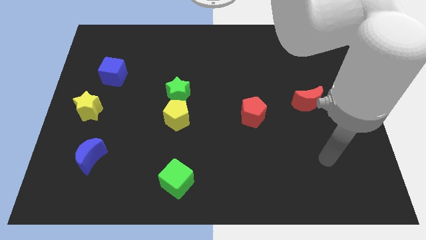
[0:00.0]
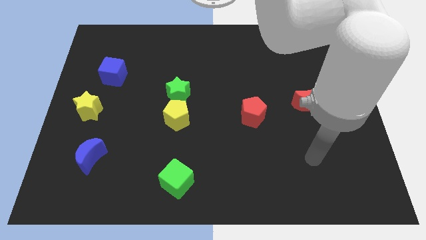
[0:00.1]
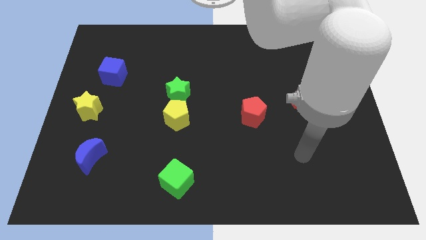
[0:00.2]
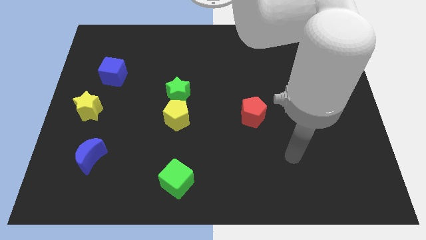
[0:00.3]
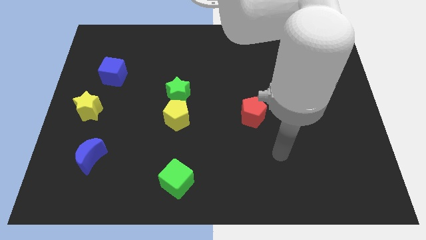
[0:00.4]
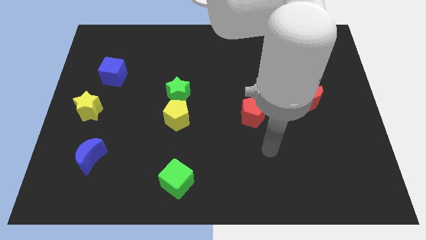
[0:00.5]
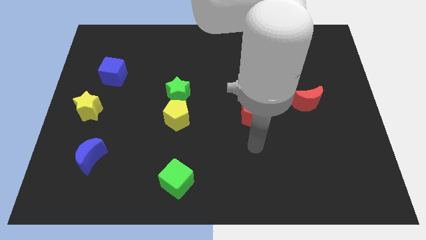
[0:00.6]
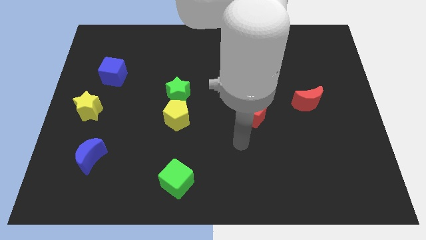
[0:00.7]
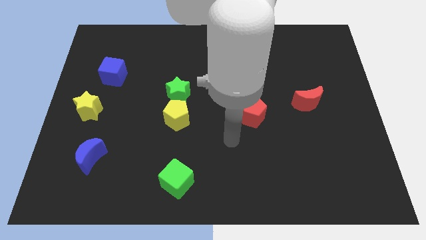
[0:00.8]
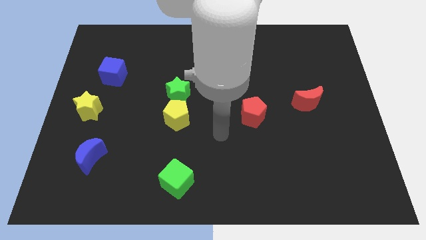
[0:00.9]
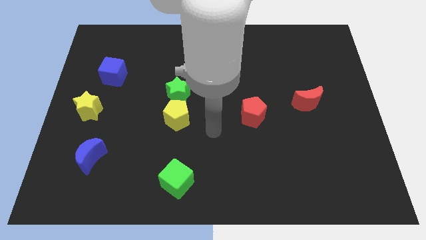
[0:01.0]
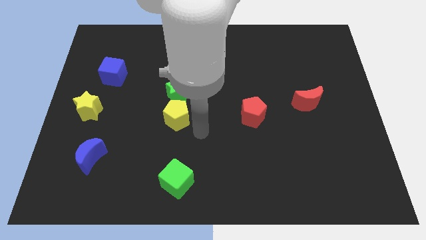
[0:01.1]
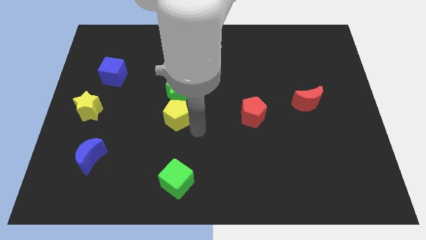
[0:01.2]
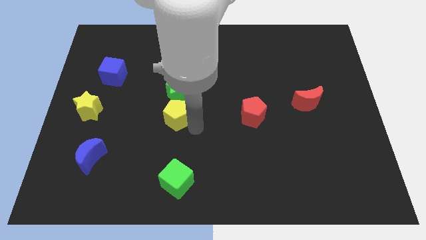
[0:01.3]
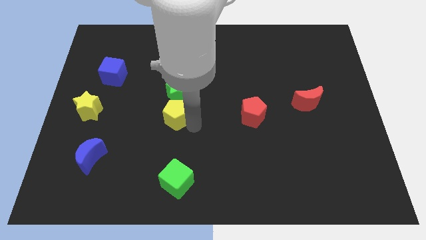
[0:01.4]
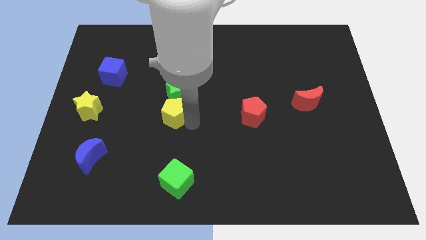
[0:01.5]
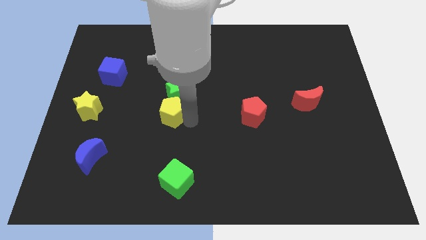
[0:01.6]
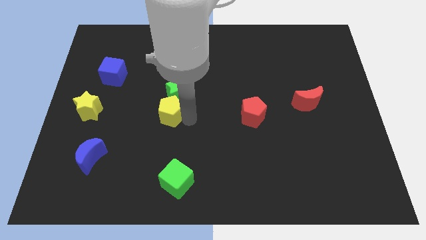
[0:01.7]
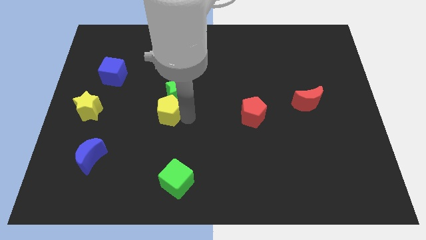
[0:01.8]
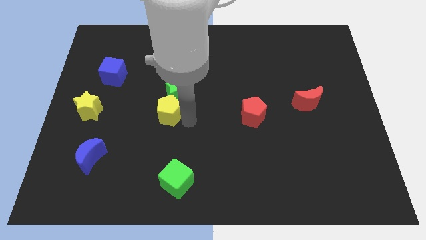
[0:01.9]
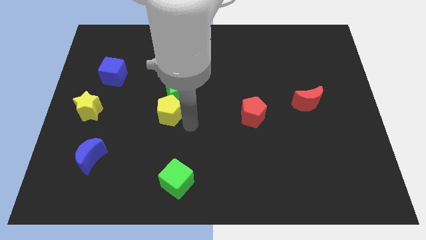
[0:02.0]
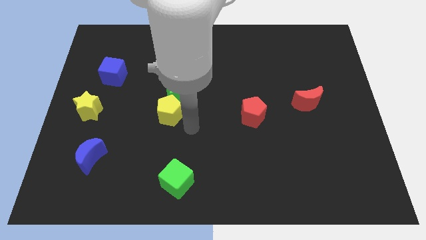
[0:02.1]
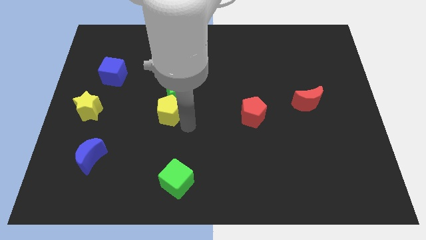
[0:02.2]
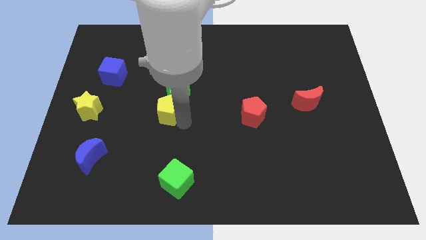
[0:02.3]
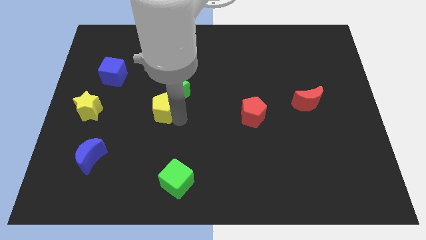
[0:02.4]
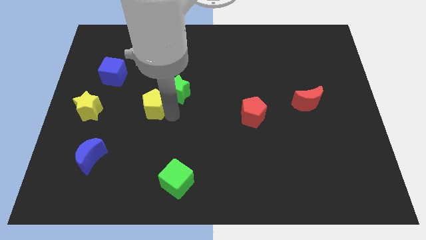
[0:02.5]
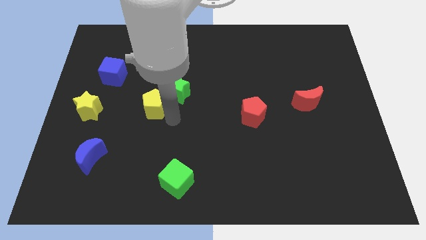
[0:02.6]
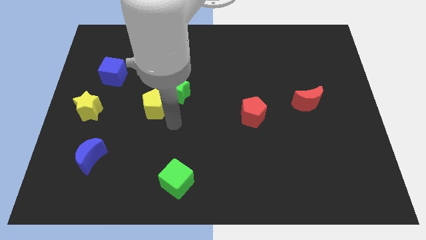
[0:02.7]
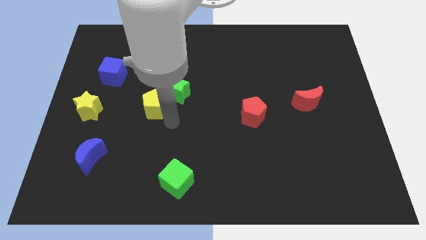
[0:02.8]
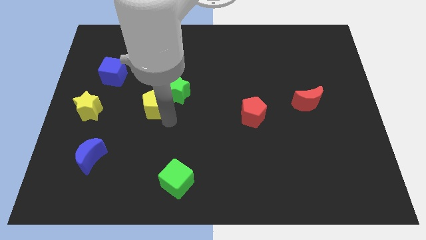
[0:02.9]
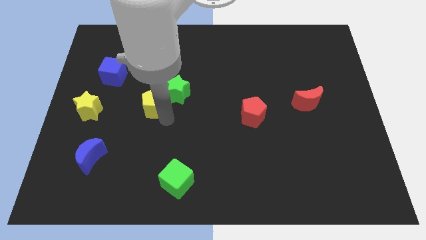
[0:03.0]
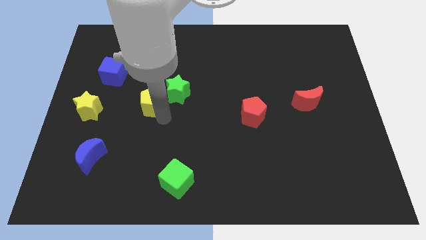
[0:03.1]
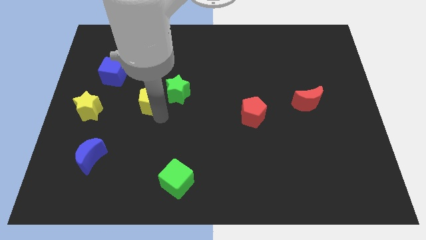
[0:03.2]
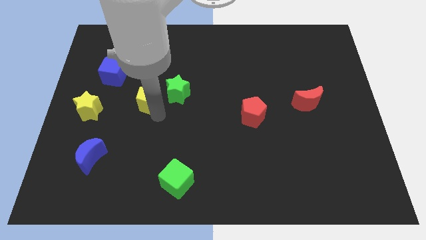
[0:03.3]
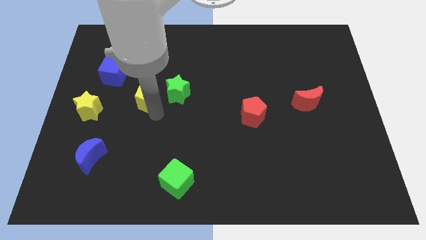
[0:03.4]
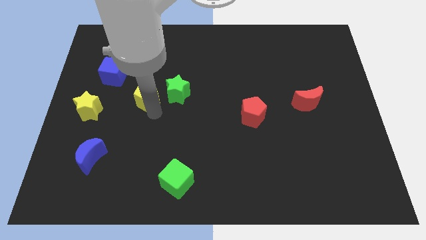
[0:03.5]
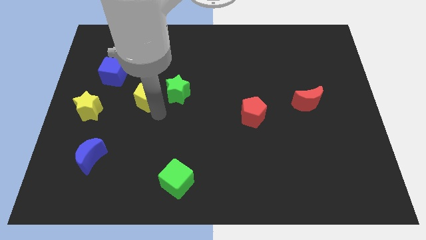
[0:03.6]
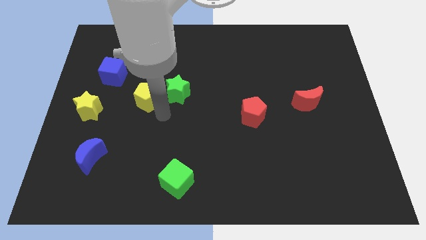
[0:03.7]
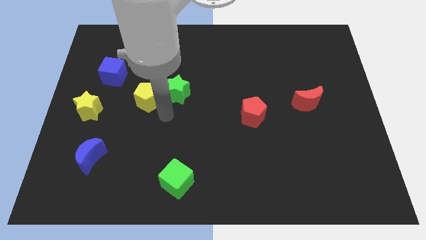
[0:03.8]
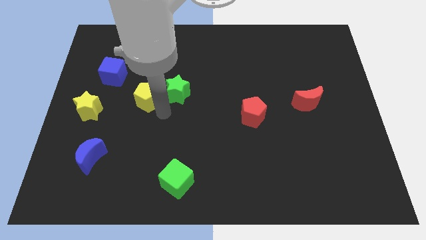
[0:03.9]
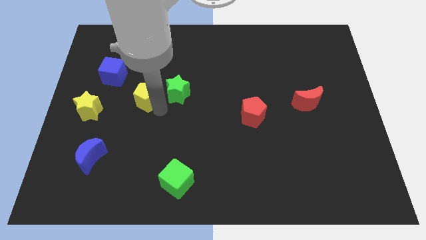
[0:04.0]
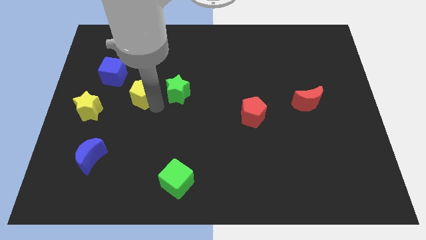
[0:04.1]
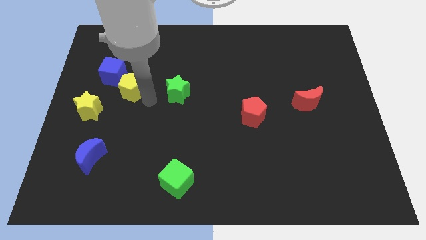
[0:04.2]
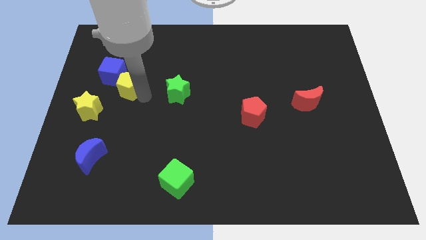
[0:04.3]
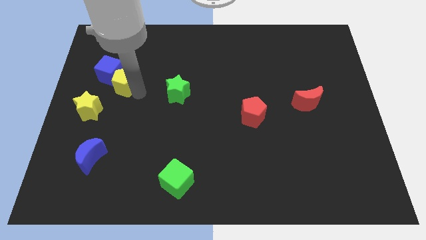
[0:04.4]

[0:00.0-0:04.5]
move the yellow pentagon to the blue cube

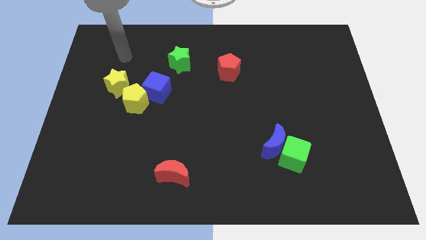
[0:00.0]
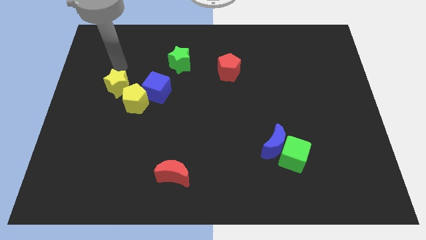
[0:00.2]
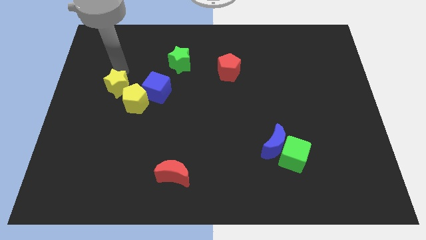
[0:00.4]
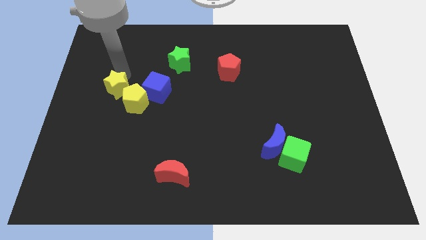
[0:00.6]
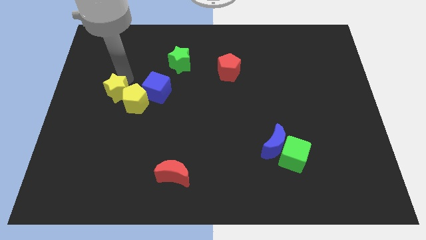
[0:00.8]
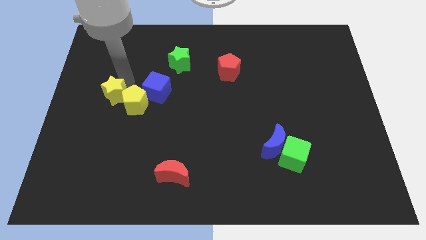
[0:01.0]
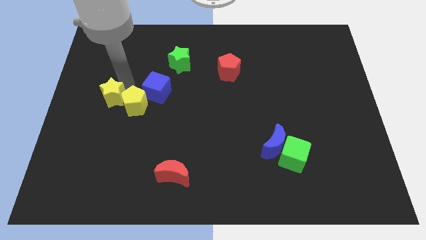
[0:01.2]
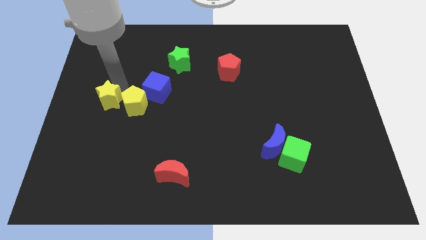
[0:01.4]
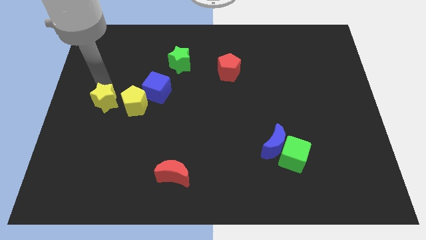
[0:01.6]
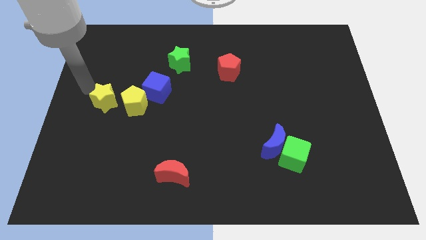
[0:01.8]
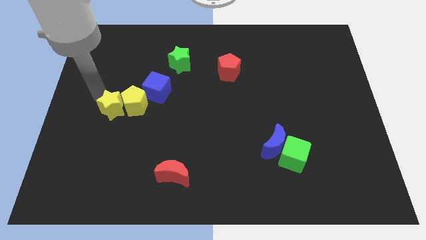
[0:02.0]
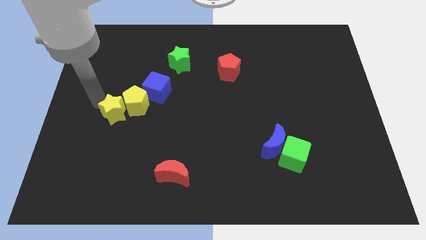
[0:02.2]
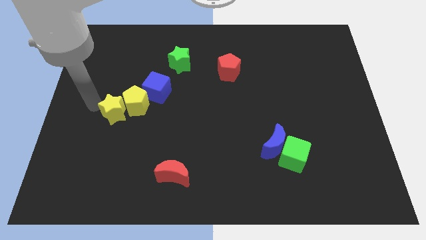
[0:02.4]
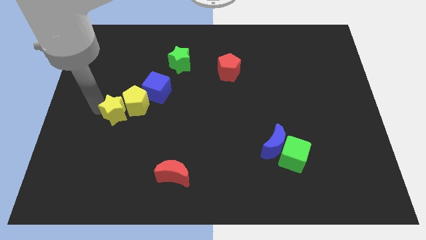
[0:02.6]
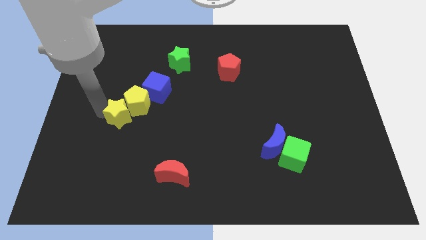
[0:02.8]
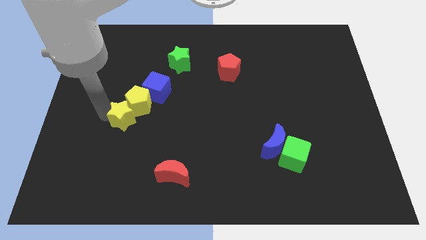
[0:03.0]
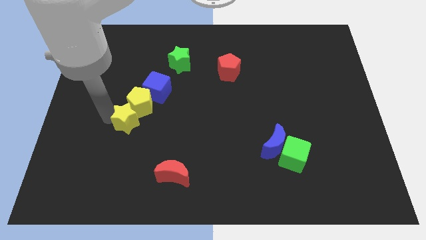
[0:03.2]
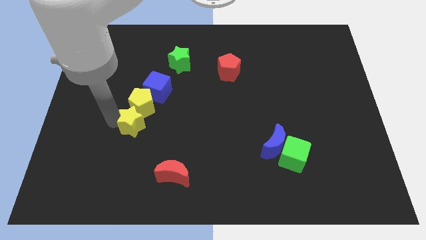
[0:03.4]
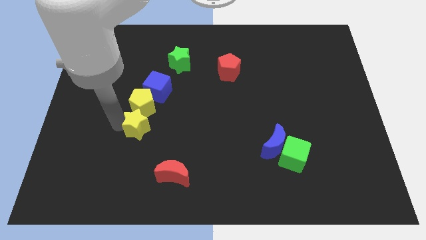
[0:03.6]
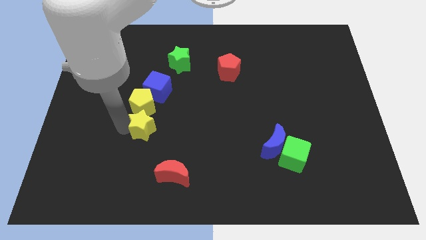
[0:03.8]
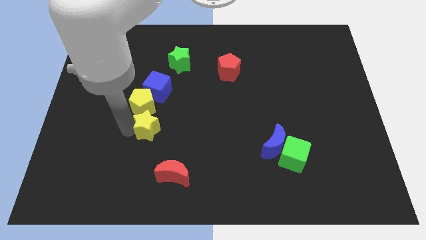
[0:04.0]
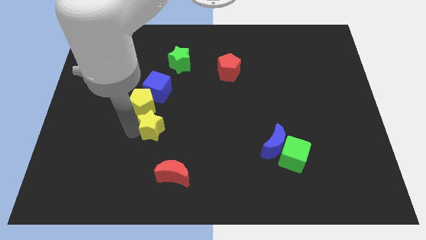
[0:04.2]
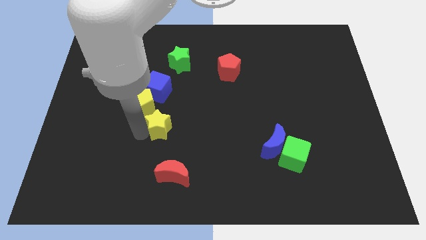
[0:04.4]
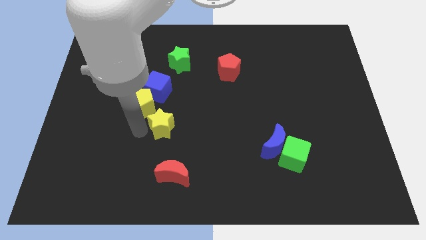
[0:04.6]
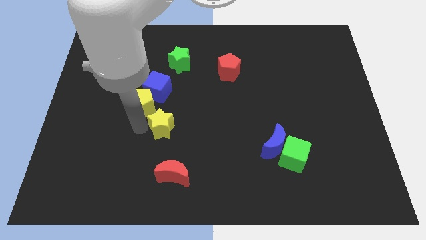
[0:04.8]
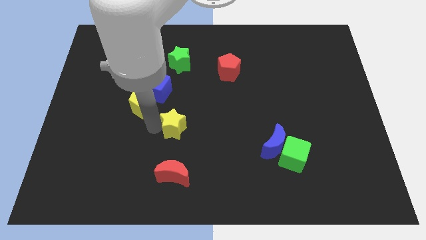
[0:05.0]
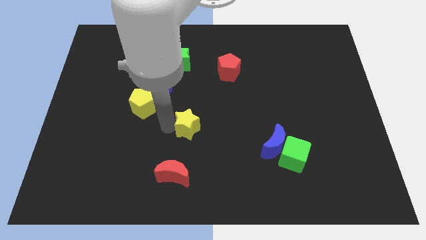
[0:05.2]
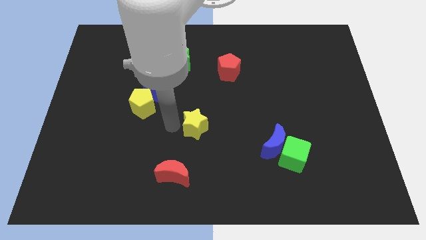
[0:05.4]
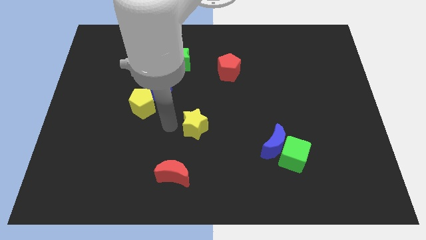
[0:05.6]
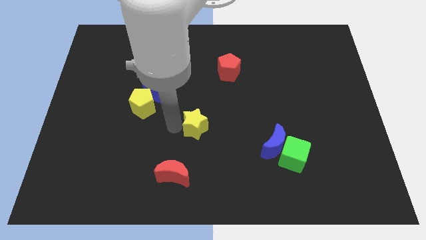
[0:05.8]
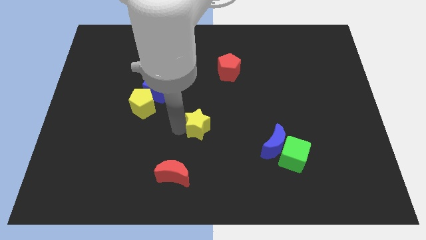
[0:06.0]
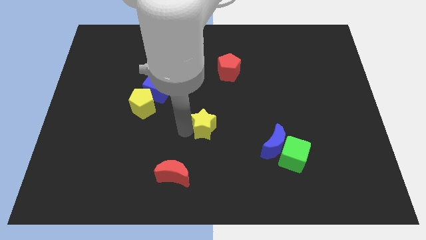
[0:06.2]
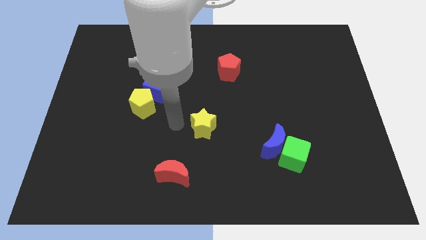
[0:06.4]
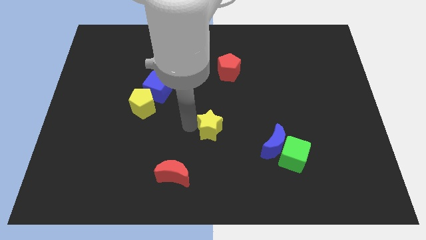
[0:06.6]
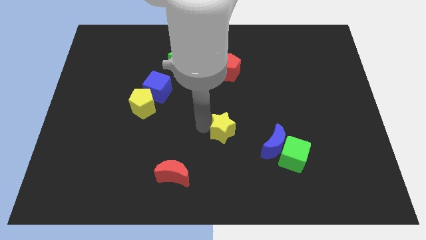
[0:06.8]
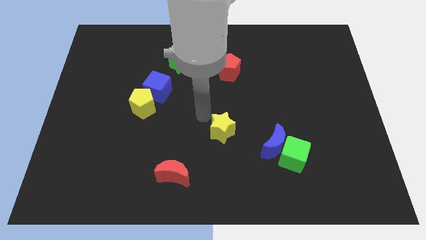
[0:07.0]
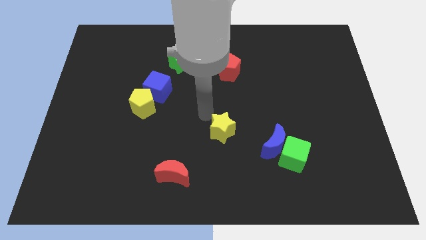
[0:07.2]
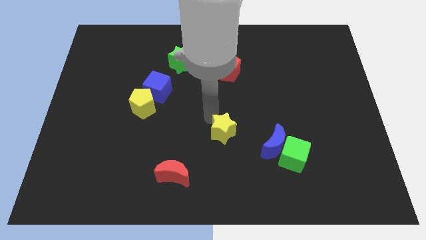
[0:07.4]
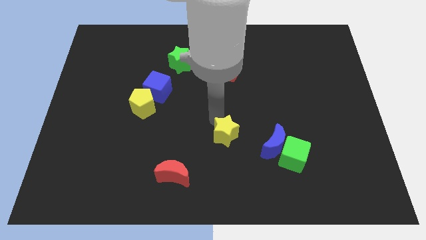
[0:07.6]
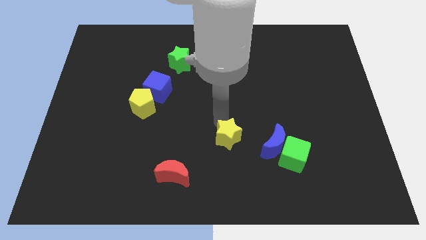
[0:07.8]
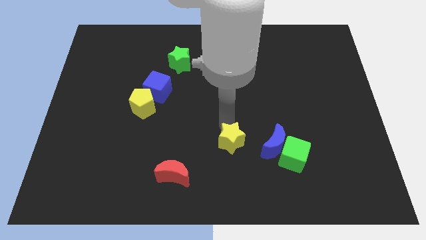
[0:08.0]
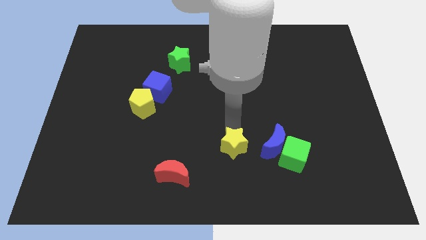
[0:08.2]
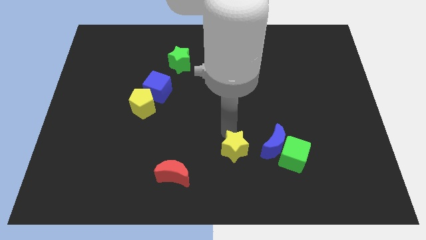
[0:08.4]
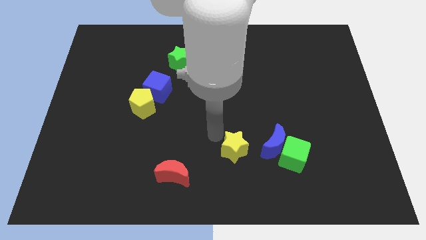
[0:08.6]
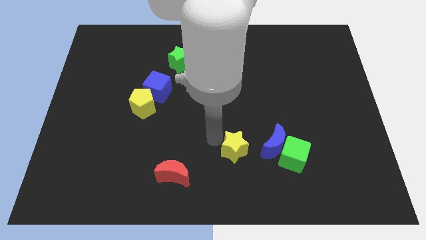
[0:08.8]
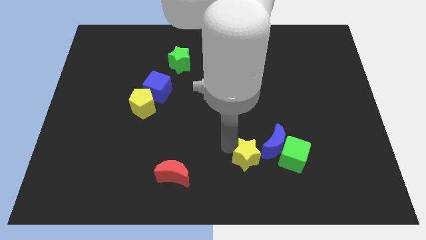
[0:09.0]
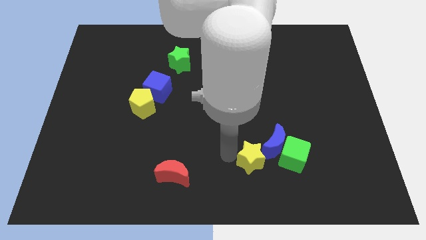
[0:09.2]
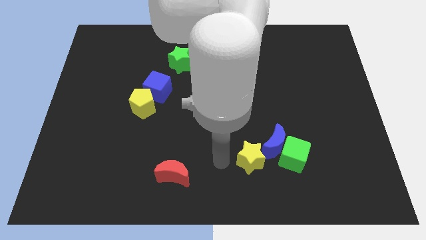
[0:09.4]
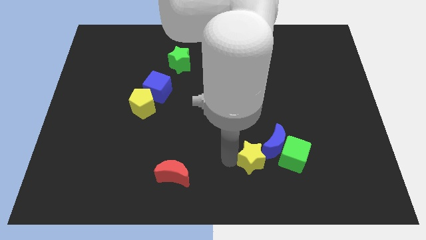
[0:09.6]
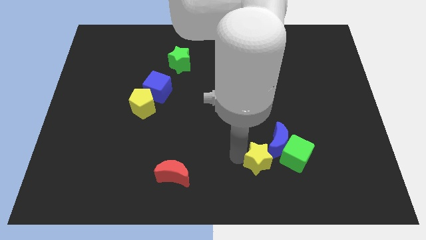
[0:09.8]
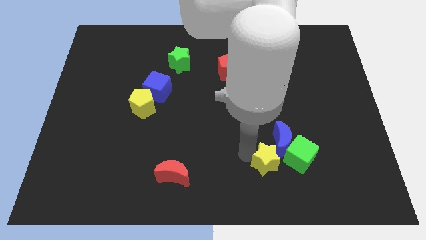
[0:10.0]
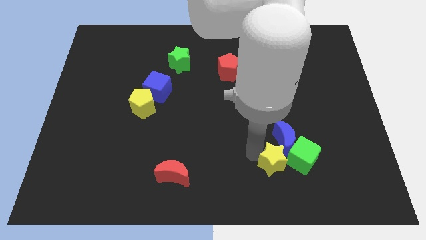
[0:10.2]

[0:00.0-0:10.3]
push the yellow star close to the green cube
